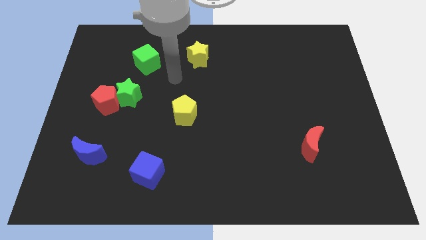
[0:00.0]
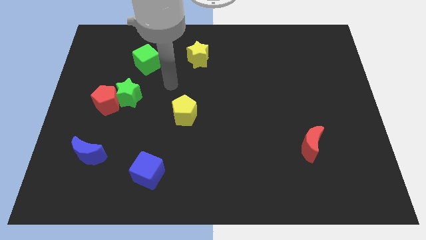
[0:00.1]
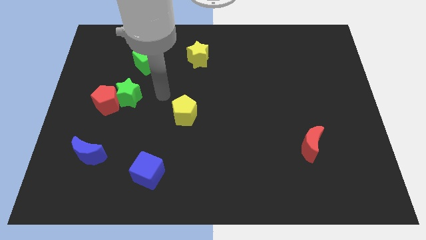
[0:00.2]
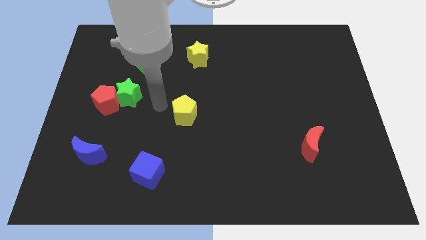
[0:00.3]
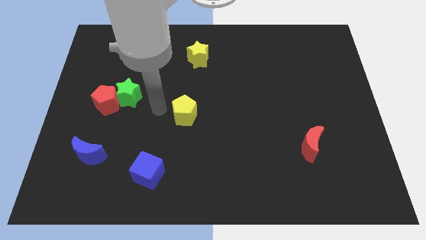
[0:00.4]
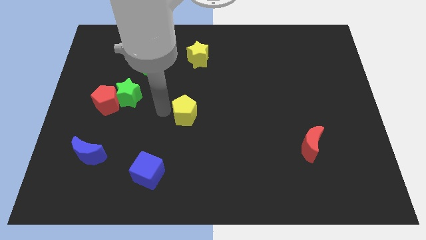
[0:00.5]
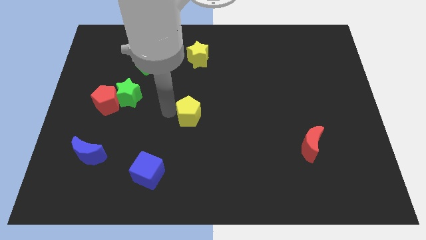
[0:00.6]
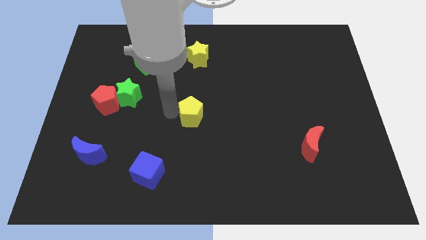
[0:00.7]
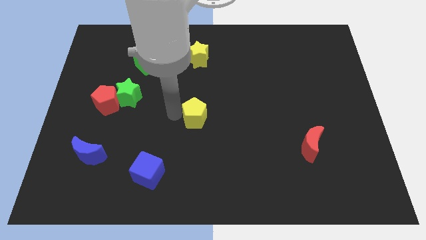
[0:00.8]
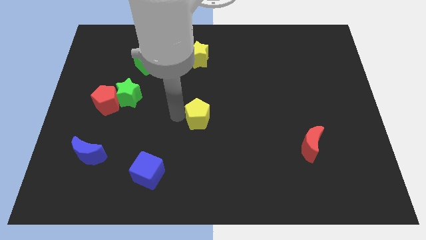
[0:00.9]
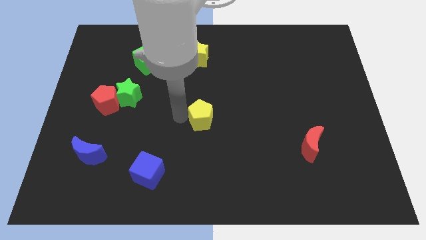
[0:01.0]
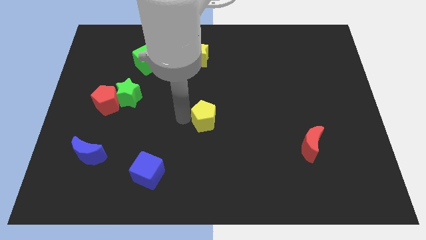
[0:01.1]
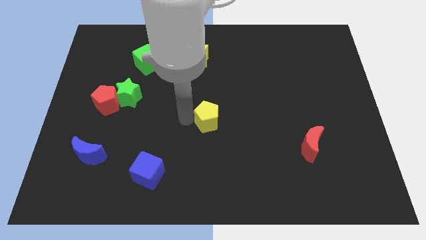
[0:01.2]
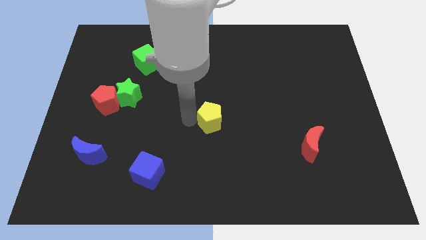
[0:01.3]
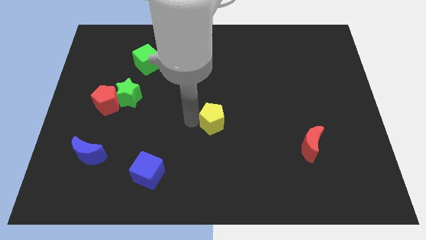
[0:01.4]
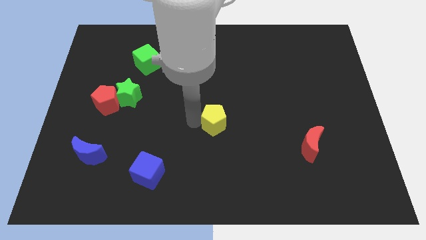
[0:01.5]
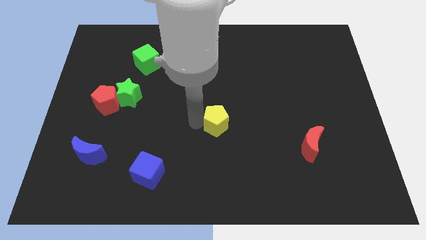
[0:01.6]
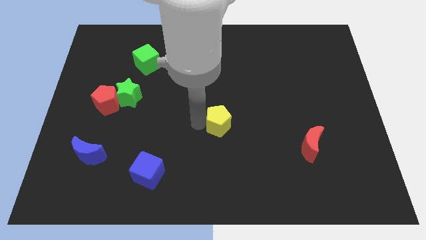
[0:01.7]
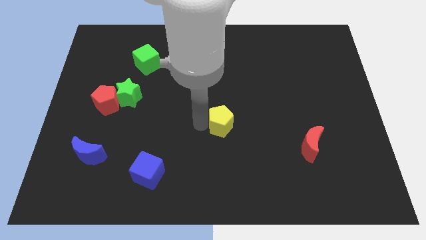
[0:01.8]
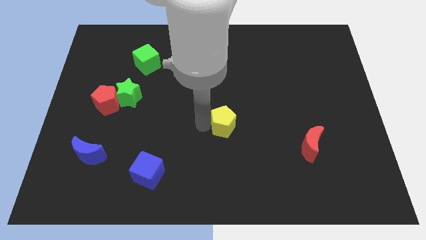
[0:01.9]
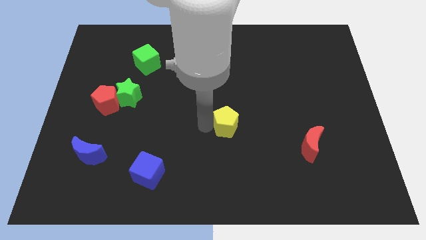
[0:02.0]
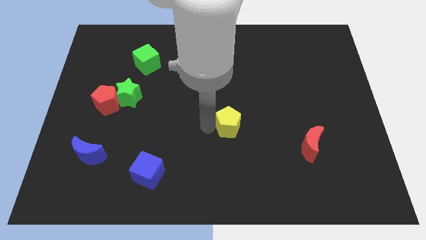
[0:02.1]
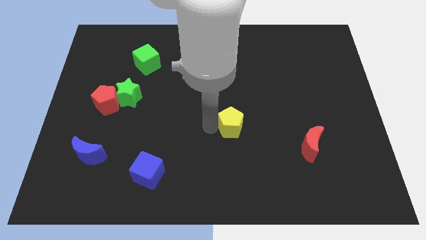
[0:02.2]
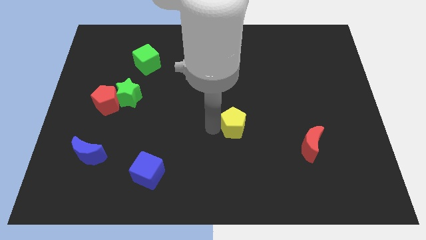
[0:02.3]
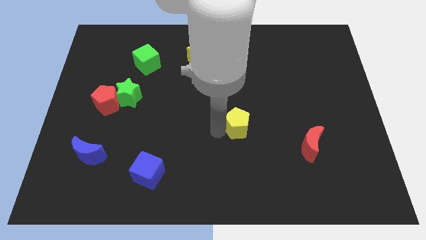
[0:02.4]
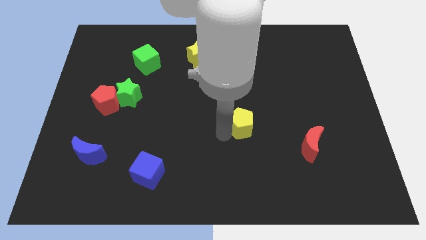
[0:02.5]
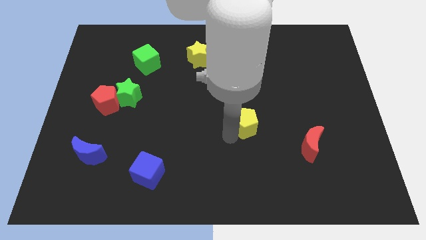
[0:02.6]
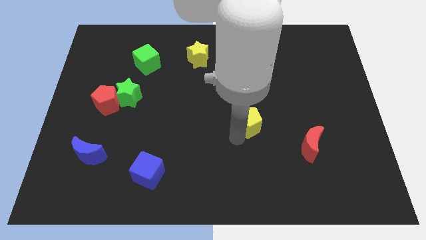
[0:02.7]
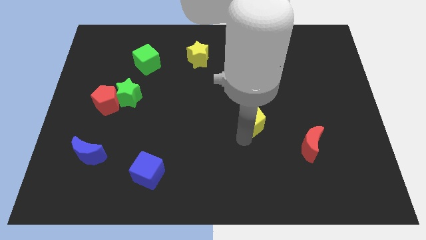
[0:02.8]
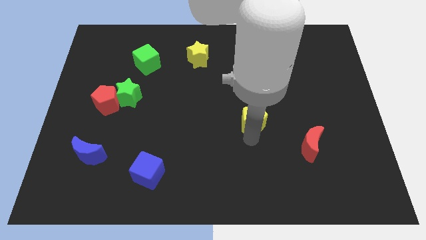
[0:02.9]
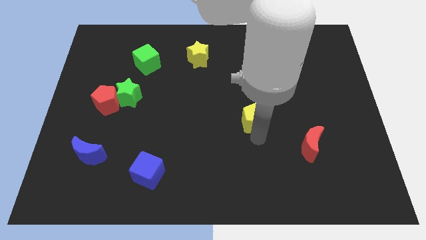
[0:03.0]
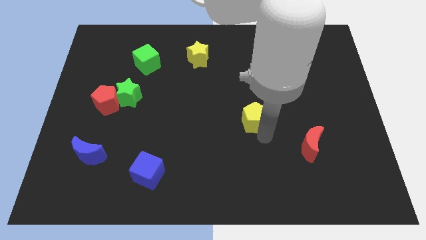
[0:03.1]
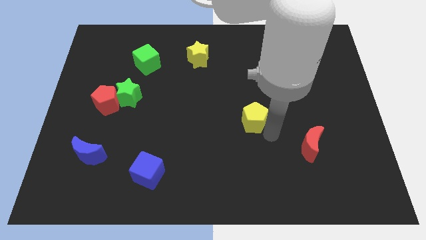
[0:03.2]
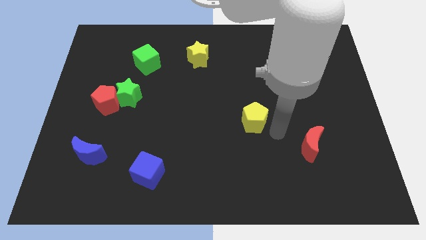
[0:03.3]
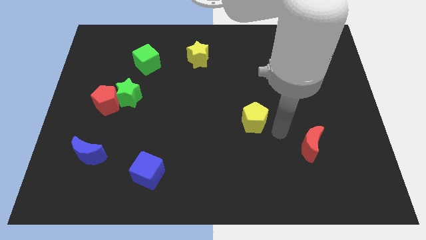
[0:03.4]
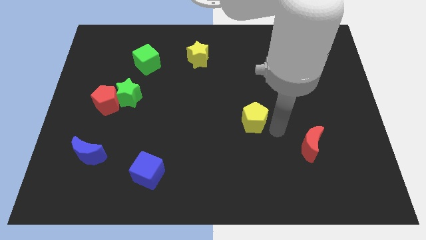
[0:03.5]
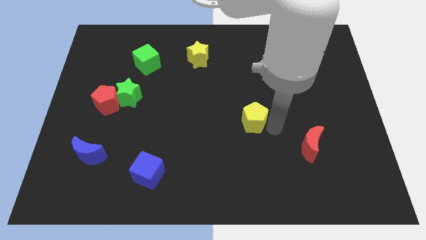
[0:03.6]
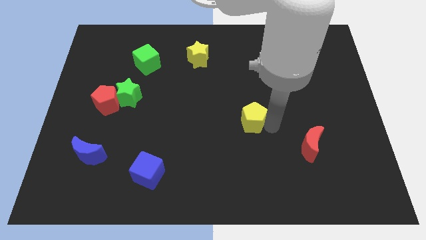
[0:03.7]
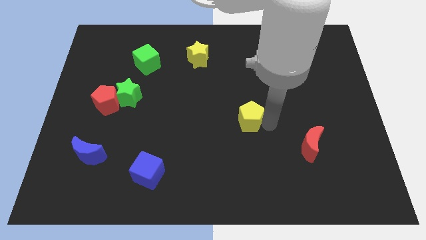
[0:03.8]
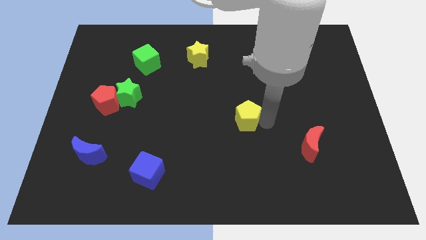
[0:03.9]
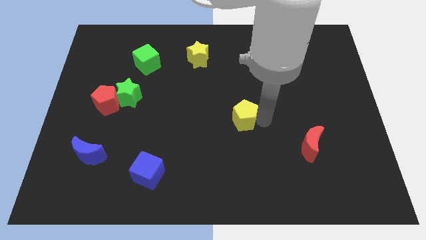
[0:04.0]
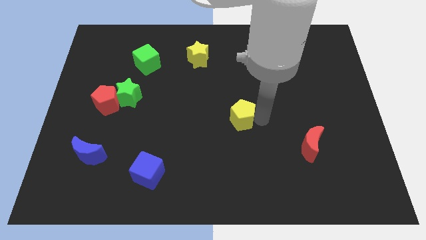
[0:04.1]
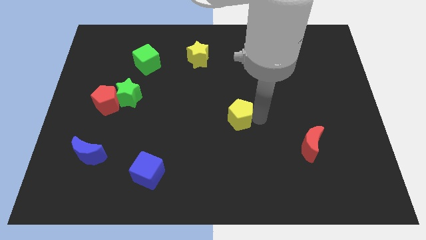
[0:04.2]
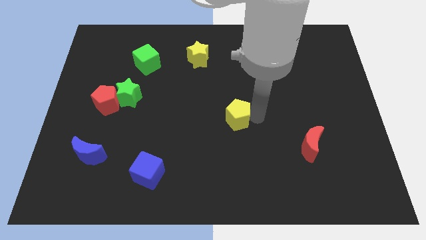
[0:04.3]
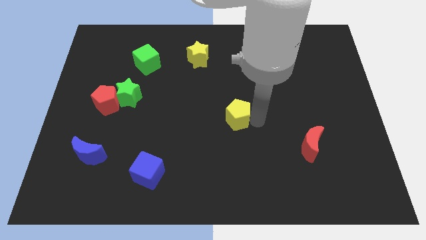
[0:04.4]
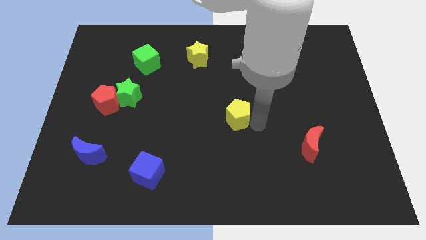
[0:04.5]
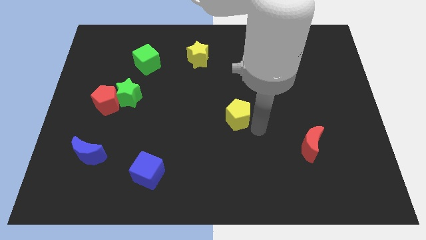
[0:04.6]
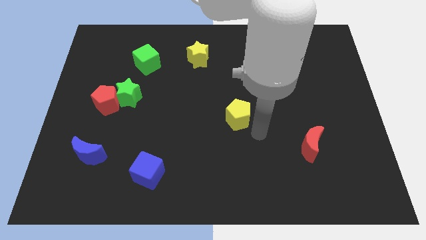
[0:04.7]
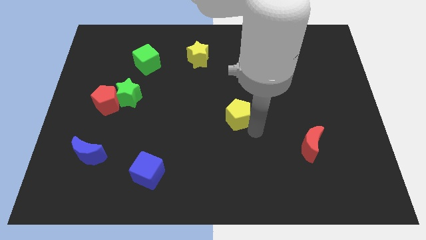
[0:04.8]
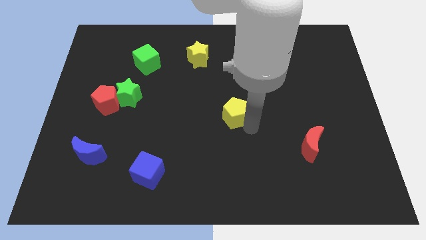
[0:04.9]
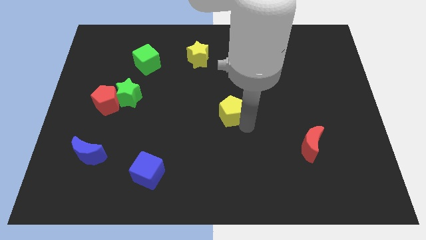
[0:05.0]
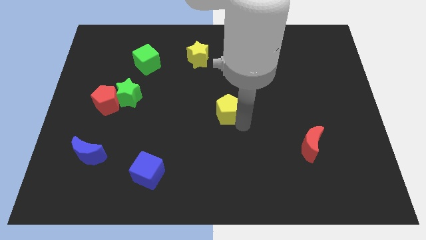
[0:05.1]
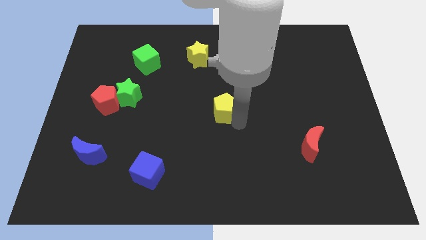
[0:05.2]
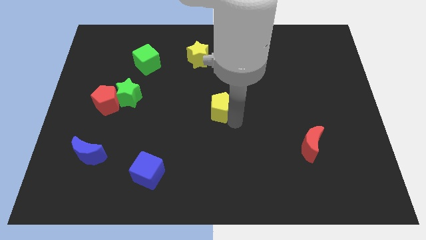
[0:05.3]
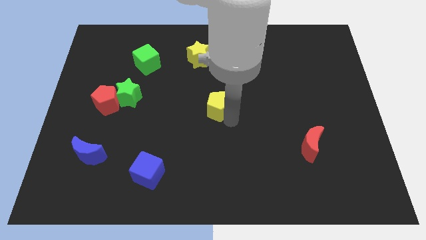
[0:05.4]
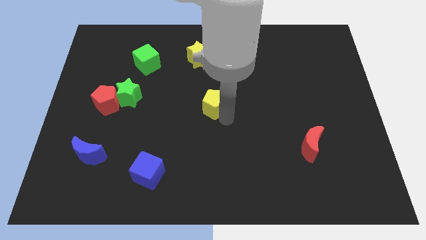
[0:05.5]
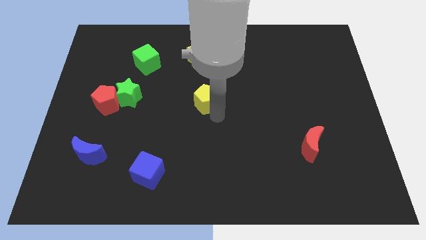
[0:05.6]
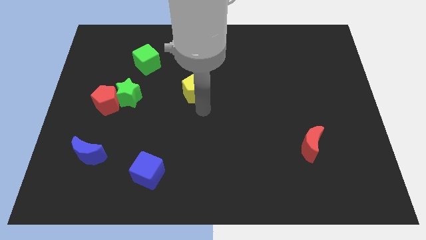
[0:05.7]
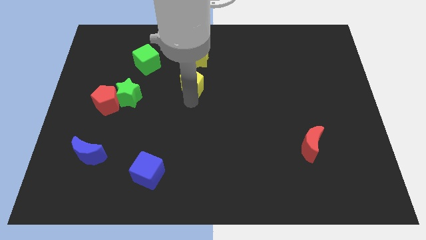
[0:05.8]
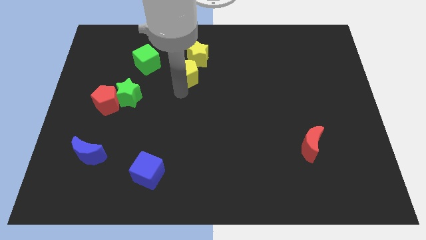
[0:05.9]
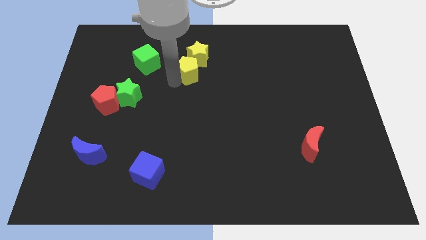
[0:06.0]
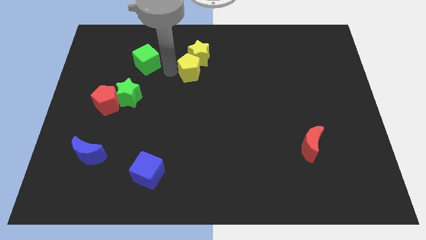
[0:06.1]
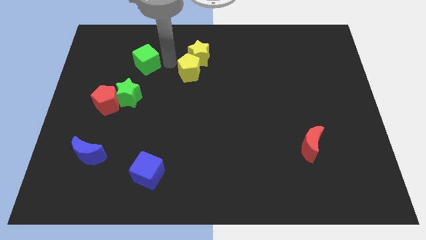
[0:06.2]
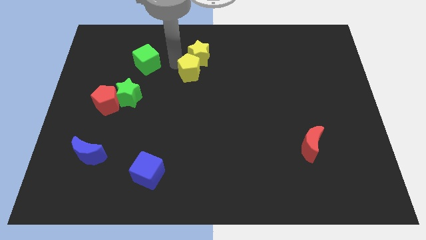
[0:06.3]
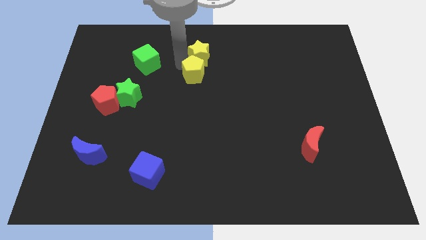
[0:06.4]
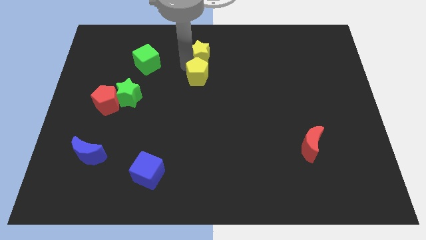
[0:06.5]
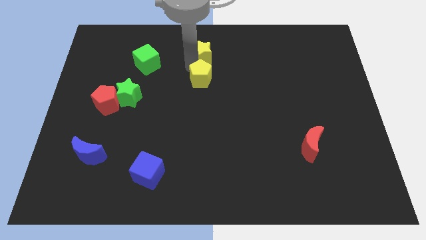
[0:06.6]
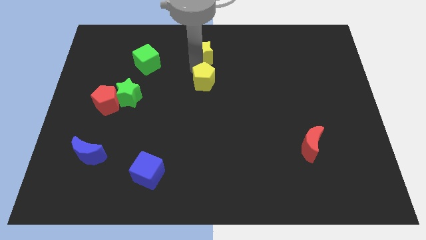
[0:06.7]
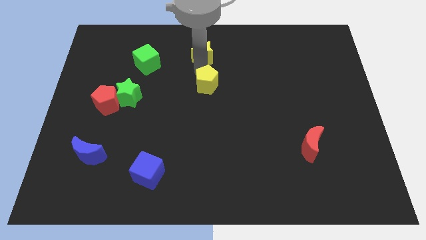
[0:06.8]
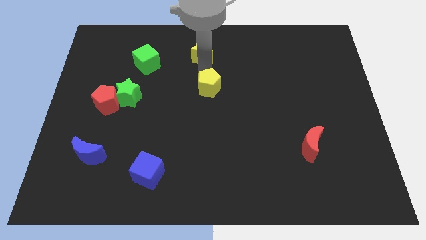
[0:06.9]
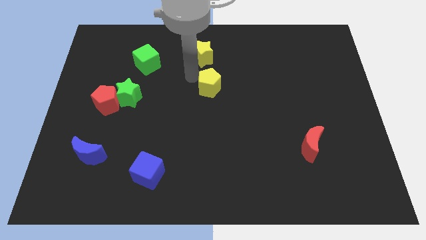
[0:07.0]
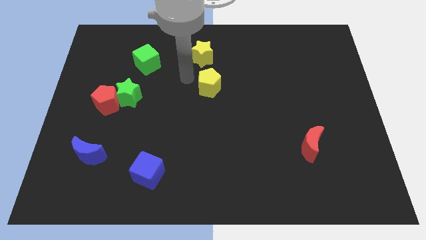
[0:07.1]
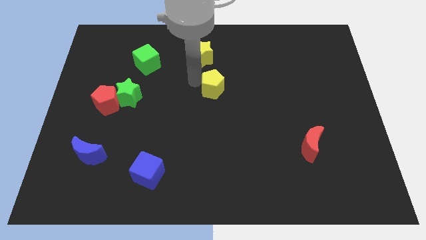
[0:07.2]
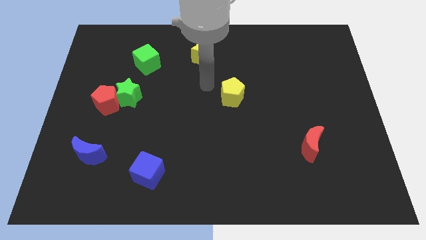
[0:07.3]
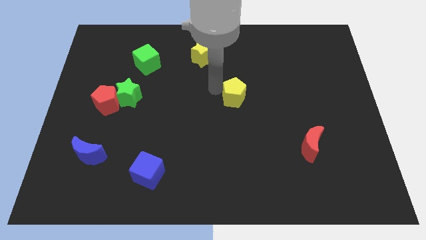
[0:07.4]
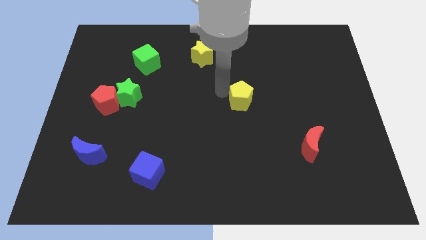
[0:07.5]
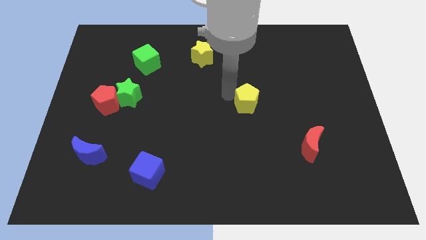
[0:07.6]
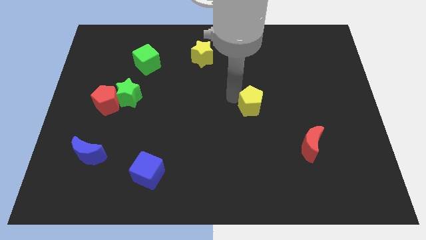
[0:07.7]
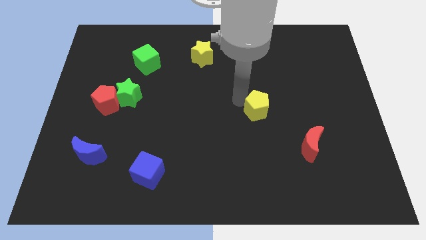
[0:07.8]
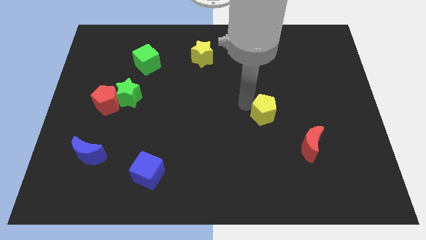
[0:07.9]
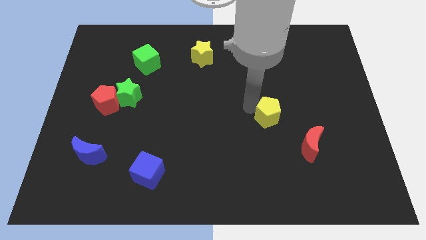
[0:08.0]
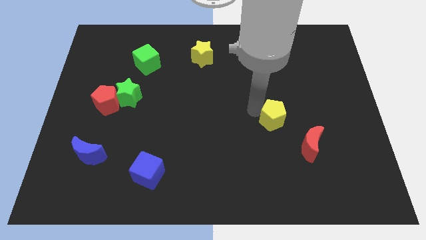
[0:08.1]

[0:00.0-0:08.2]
push the yellow pentagon to the right
